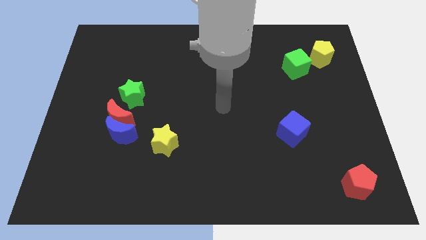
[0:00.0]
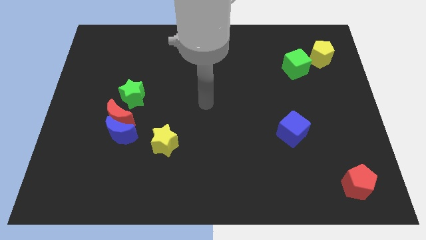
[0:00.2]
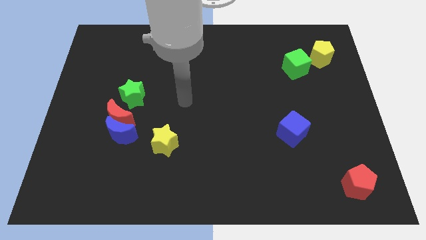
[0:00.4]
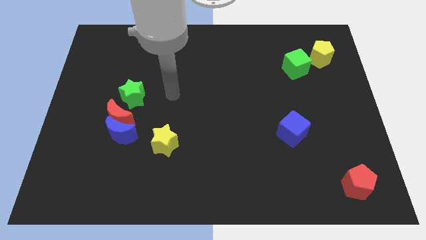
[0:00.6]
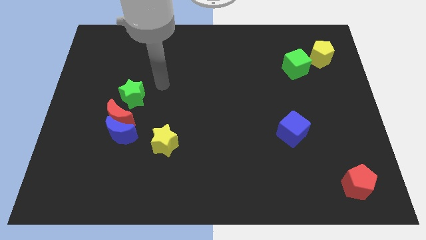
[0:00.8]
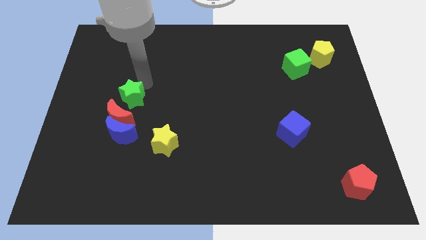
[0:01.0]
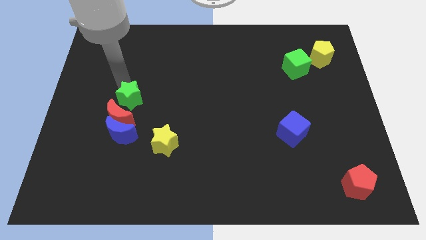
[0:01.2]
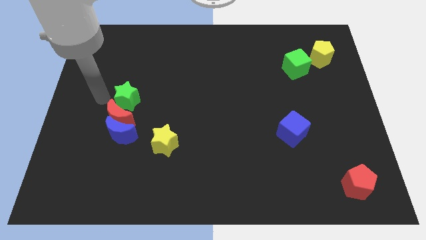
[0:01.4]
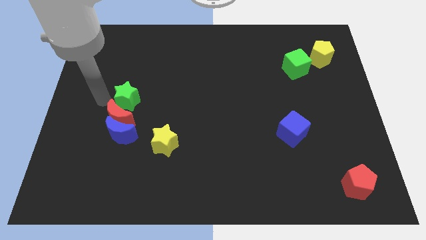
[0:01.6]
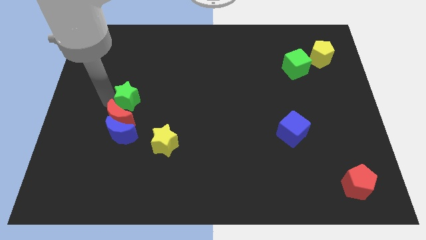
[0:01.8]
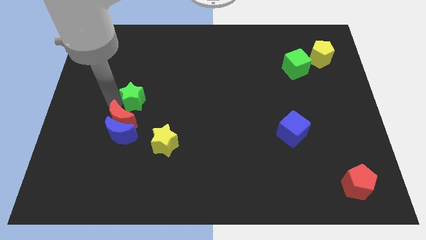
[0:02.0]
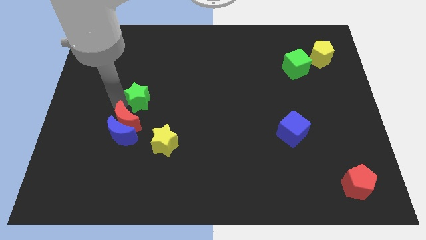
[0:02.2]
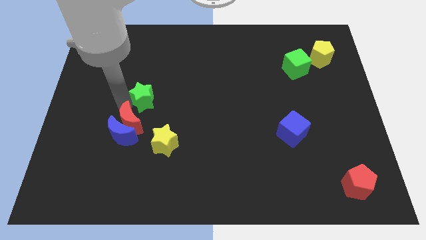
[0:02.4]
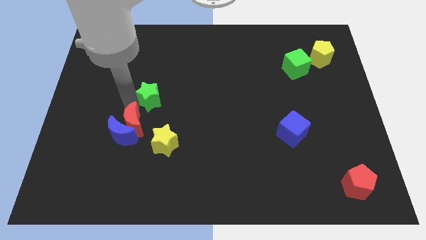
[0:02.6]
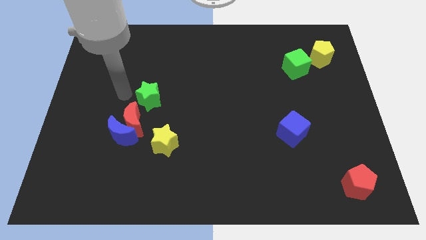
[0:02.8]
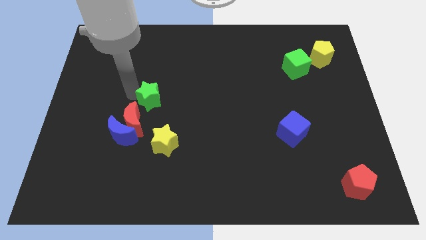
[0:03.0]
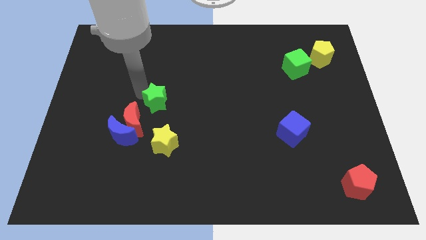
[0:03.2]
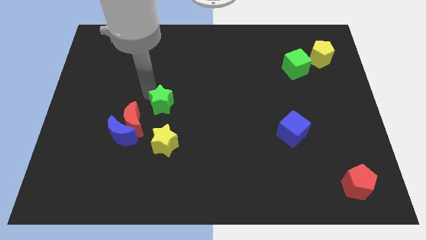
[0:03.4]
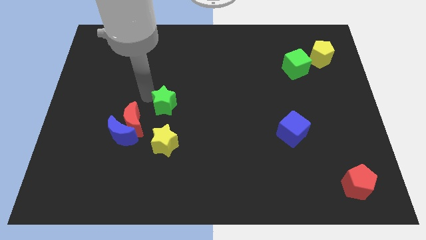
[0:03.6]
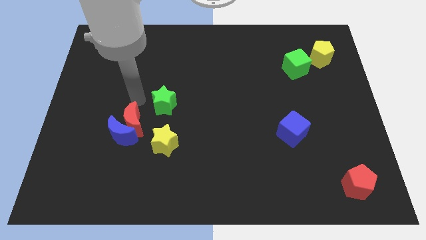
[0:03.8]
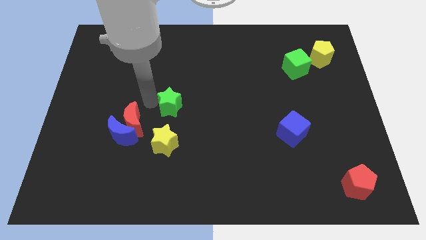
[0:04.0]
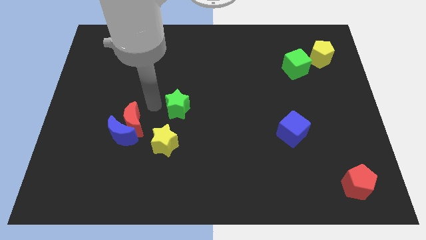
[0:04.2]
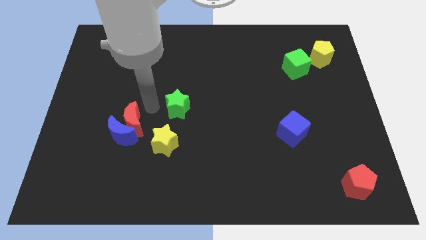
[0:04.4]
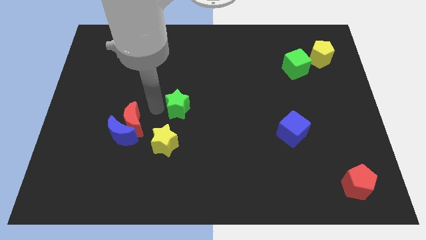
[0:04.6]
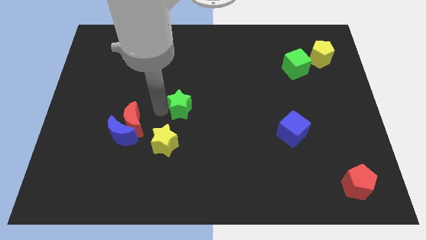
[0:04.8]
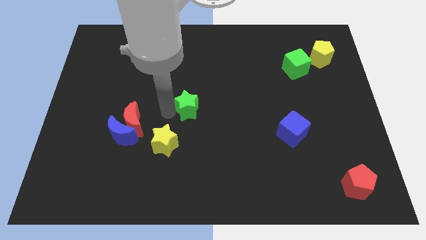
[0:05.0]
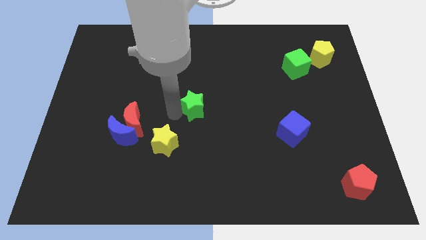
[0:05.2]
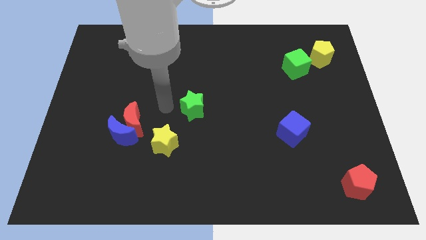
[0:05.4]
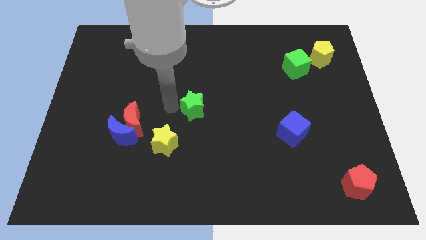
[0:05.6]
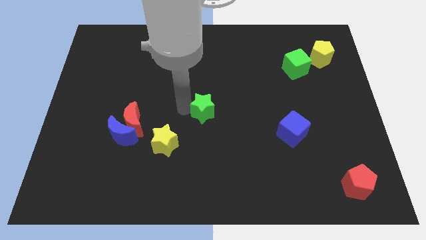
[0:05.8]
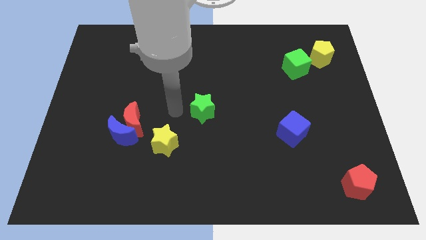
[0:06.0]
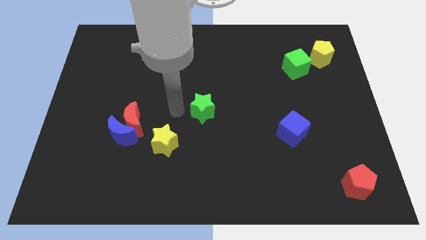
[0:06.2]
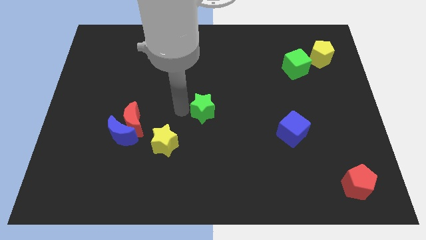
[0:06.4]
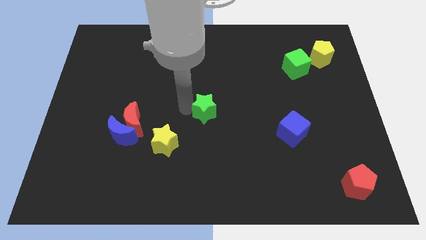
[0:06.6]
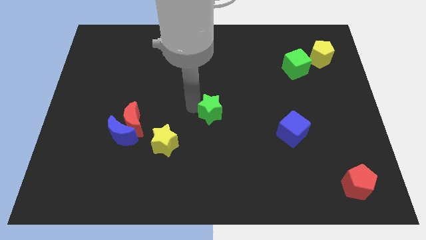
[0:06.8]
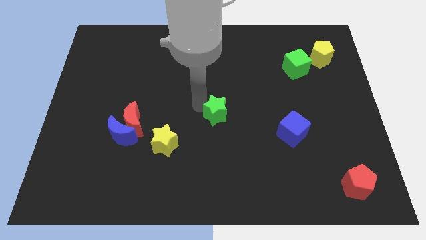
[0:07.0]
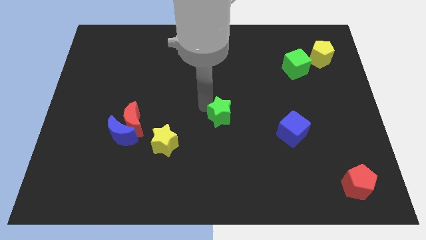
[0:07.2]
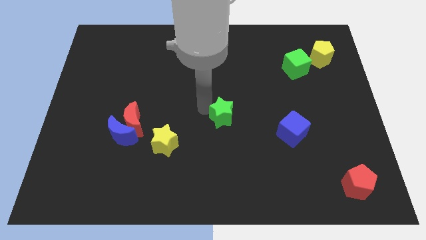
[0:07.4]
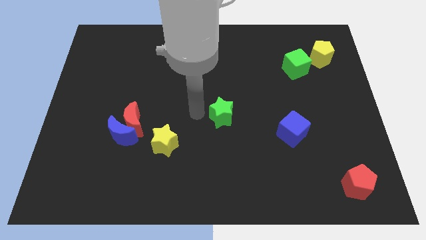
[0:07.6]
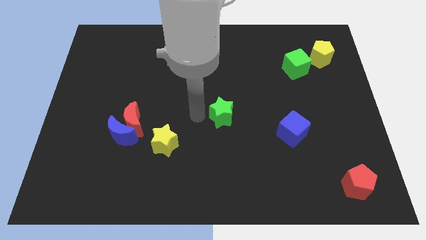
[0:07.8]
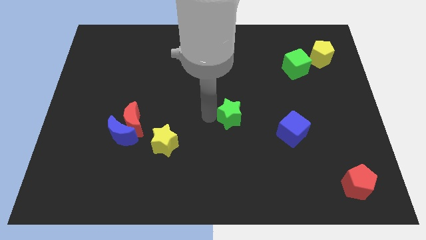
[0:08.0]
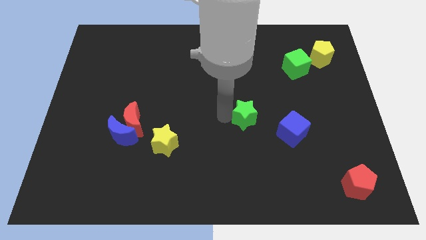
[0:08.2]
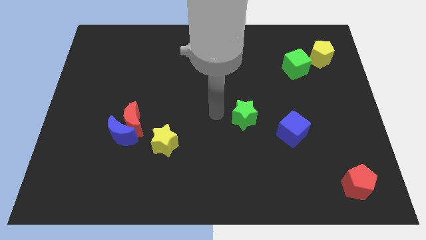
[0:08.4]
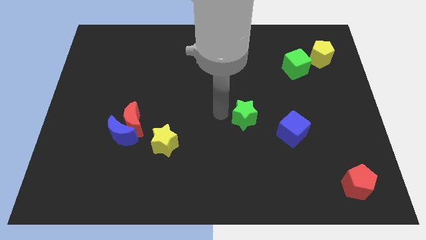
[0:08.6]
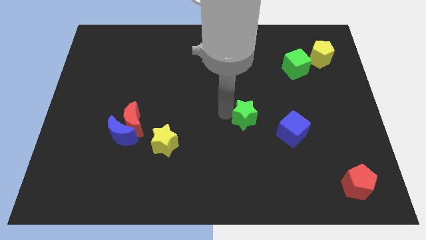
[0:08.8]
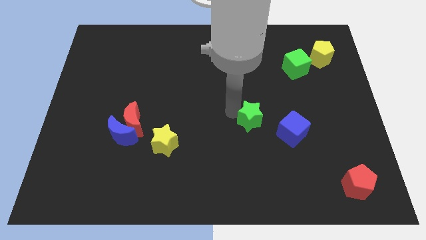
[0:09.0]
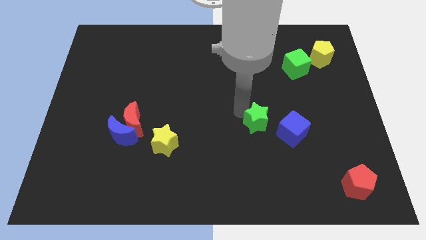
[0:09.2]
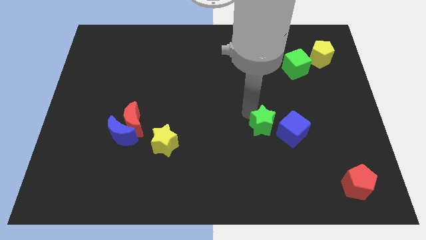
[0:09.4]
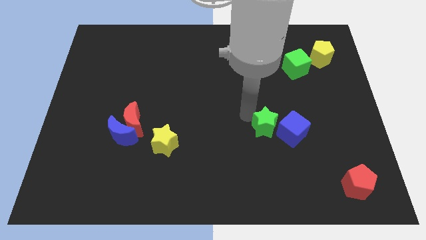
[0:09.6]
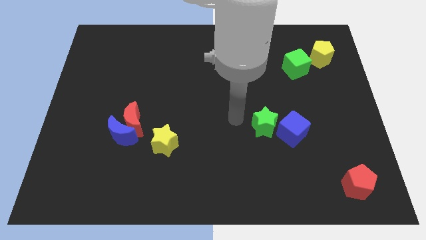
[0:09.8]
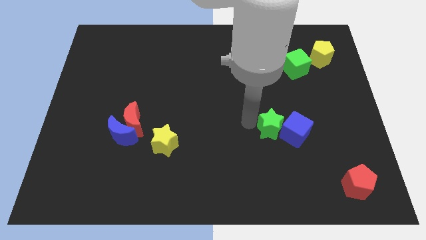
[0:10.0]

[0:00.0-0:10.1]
slide the green star to the blue cube

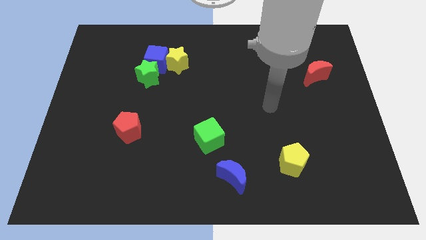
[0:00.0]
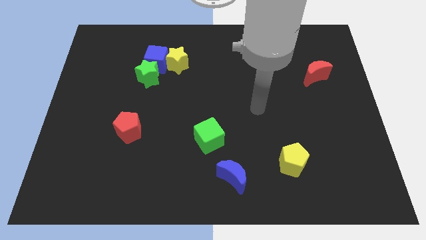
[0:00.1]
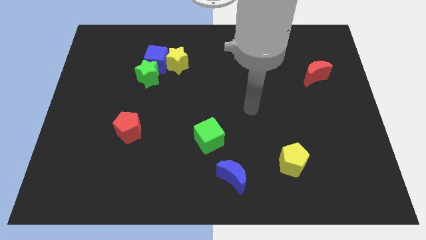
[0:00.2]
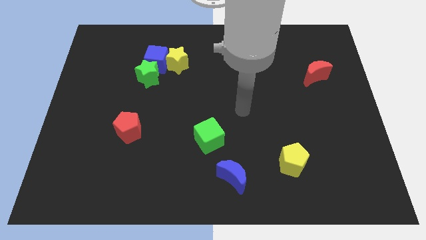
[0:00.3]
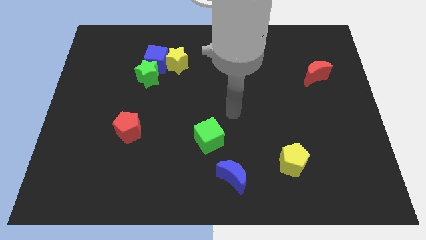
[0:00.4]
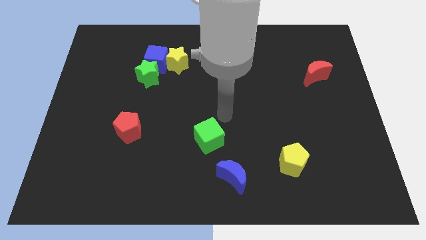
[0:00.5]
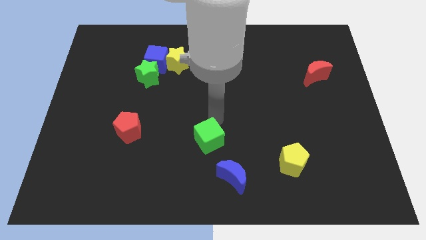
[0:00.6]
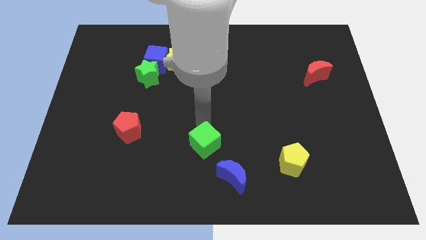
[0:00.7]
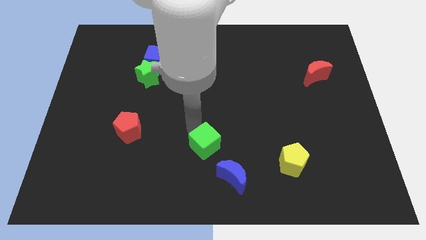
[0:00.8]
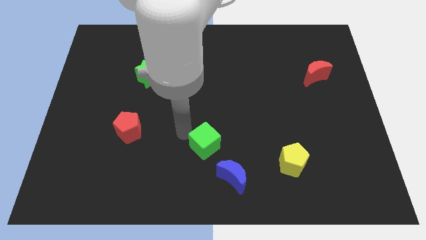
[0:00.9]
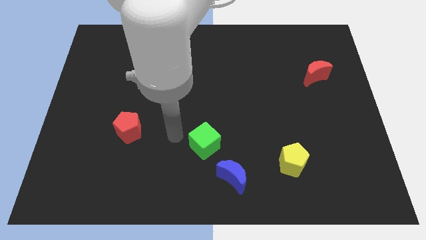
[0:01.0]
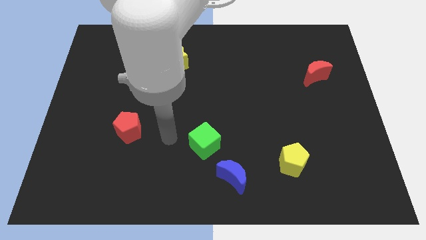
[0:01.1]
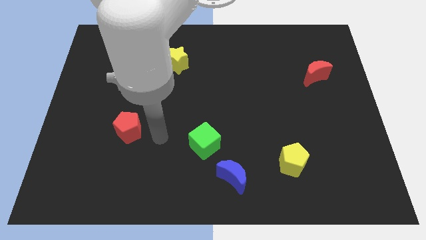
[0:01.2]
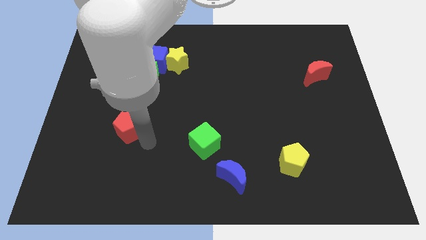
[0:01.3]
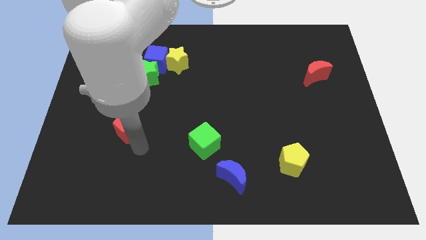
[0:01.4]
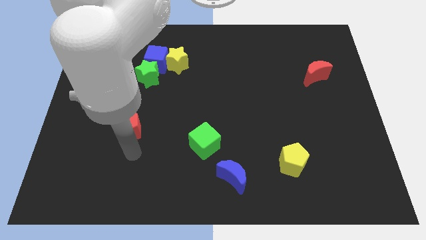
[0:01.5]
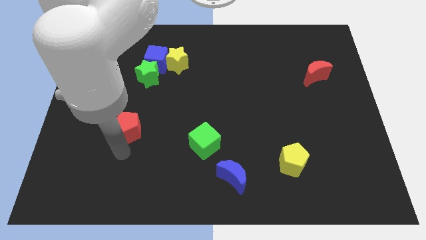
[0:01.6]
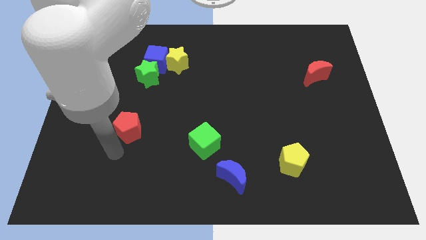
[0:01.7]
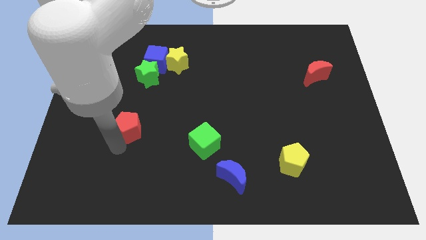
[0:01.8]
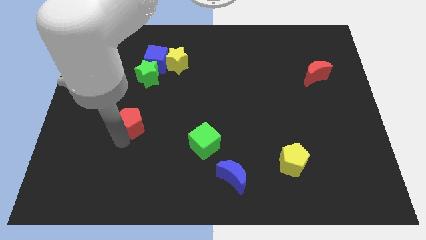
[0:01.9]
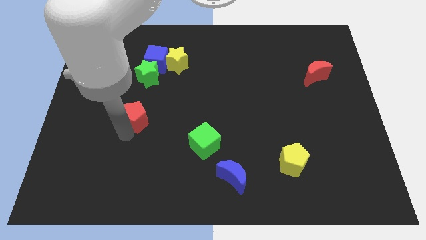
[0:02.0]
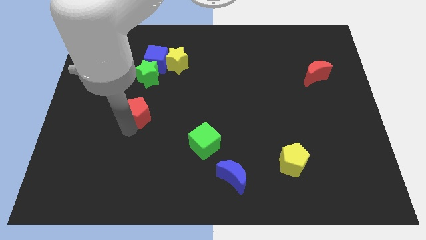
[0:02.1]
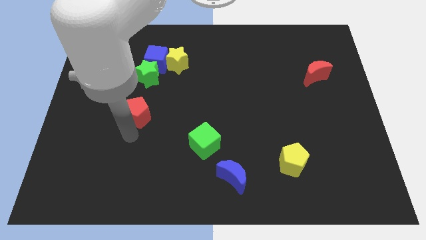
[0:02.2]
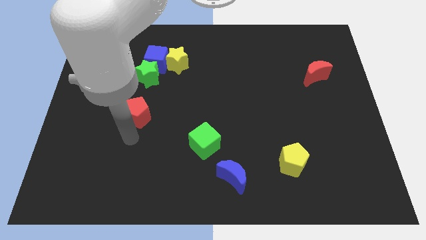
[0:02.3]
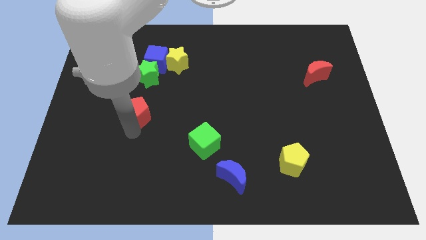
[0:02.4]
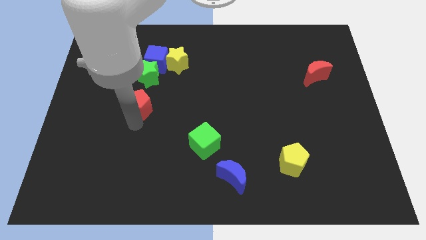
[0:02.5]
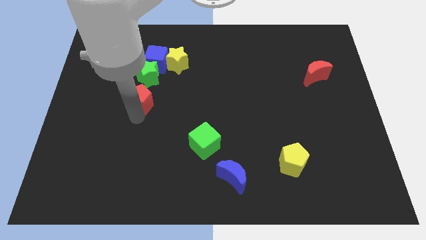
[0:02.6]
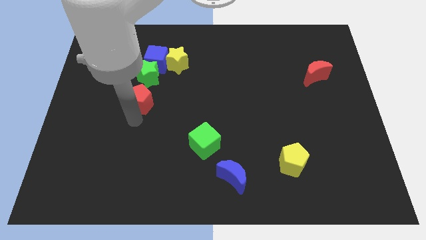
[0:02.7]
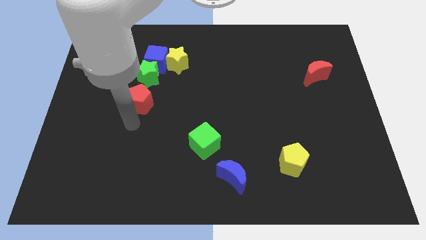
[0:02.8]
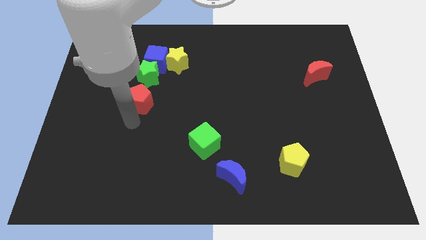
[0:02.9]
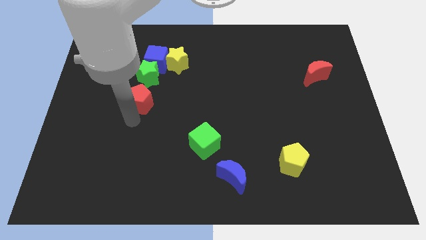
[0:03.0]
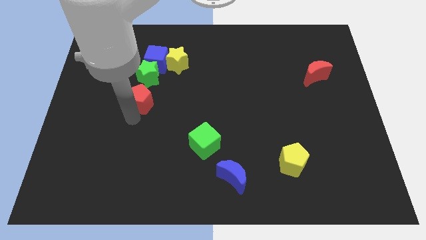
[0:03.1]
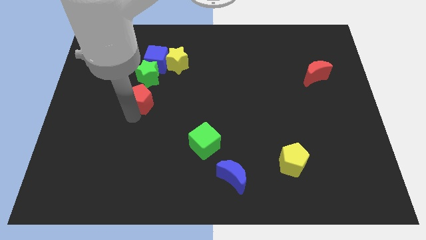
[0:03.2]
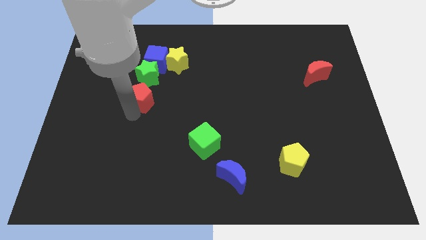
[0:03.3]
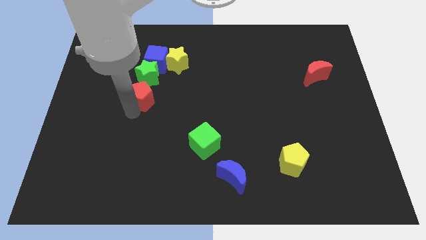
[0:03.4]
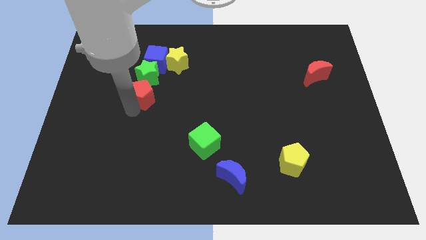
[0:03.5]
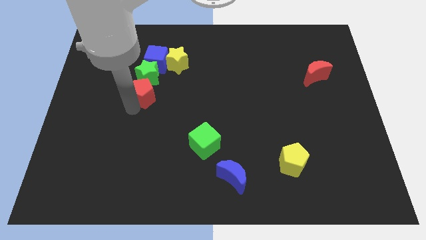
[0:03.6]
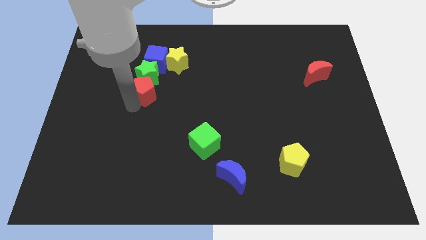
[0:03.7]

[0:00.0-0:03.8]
push the red pentagon close to the green star
